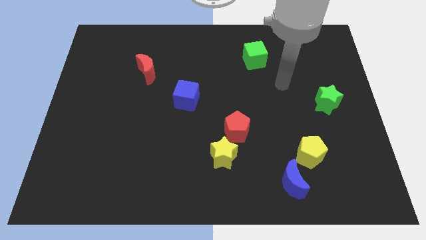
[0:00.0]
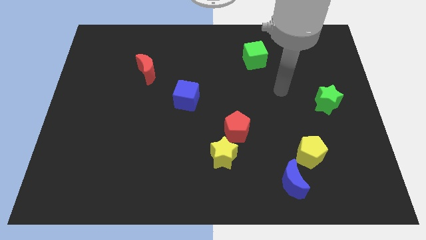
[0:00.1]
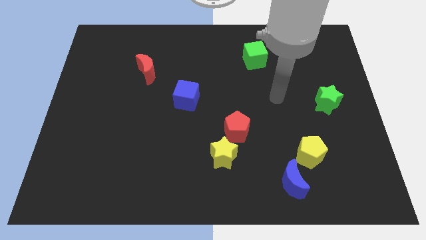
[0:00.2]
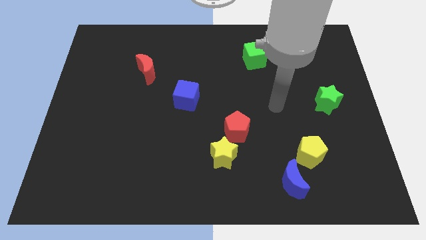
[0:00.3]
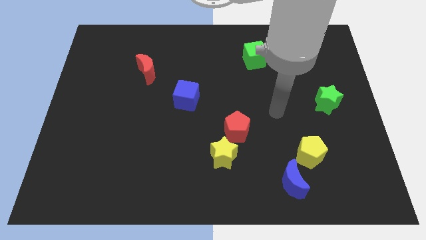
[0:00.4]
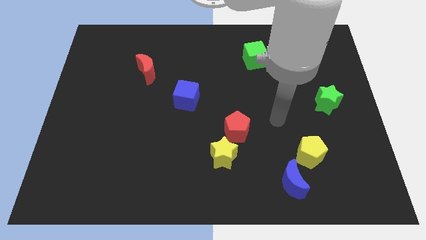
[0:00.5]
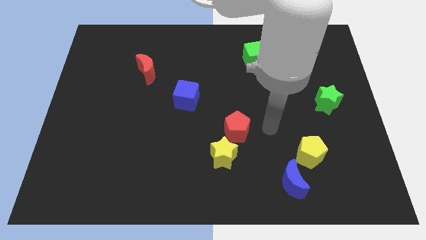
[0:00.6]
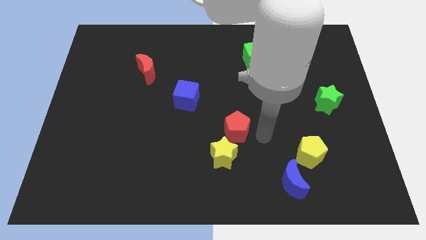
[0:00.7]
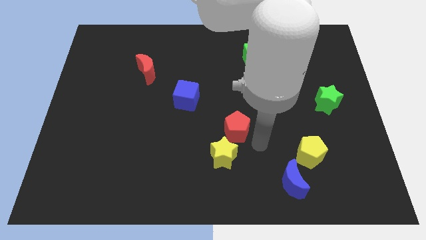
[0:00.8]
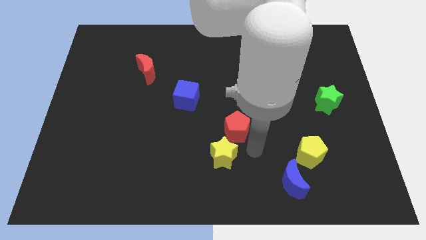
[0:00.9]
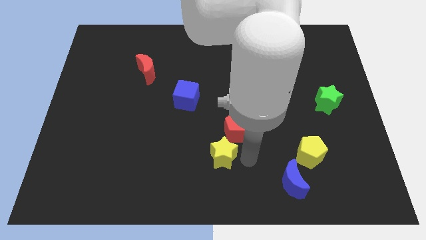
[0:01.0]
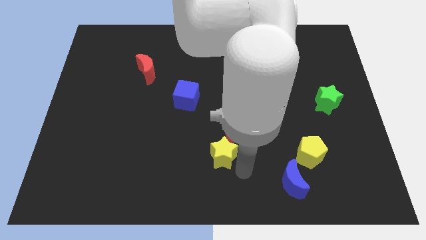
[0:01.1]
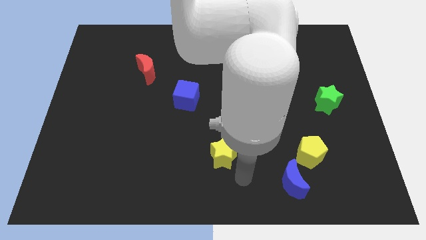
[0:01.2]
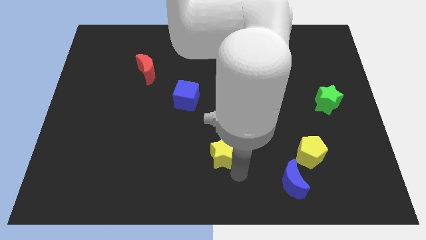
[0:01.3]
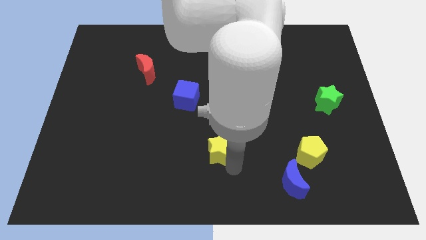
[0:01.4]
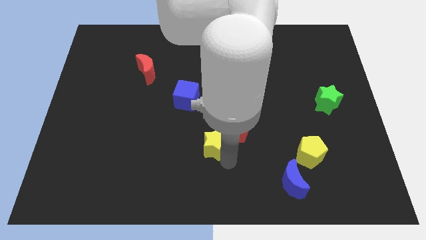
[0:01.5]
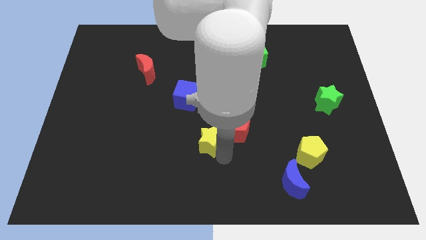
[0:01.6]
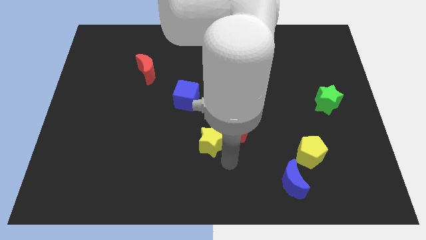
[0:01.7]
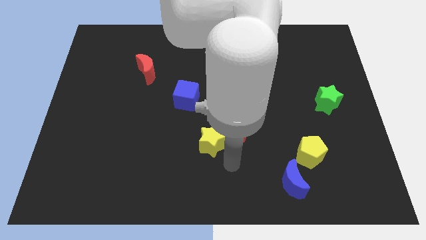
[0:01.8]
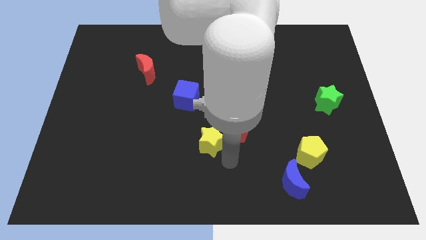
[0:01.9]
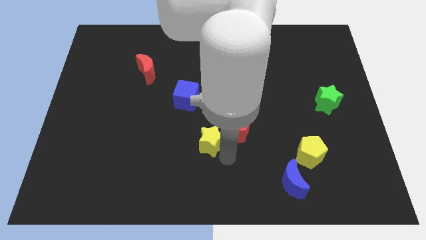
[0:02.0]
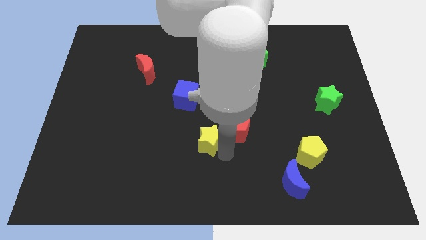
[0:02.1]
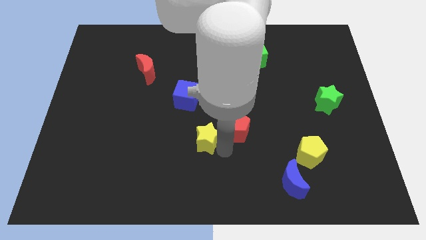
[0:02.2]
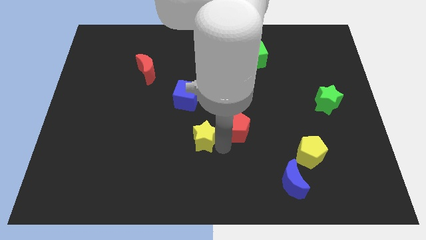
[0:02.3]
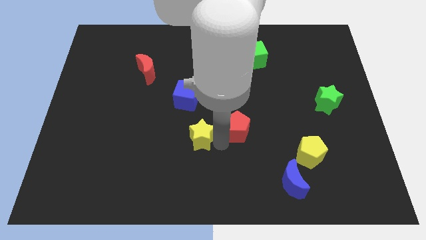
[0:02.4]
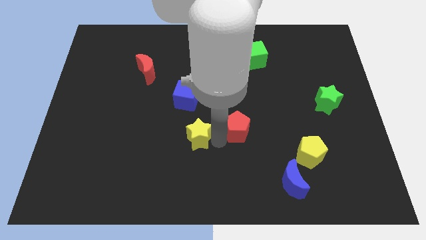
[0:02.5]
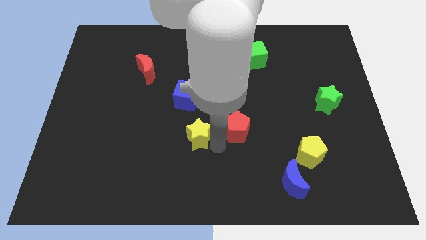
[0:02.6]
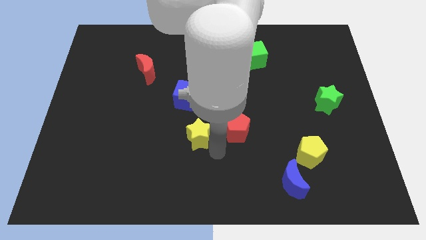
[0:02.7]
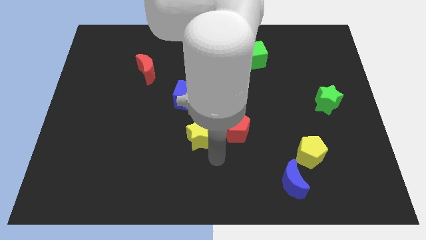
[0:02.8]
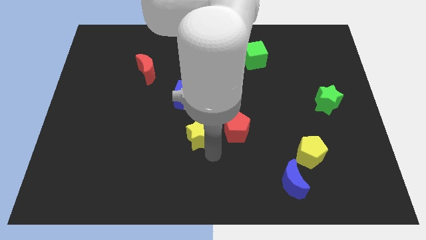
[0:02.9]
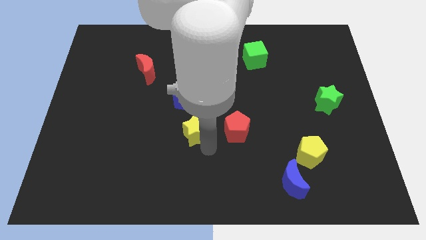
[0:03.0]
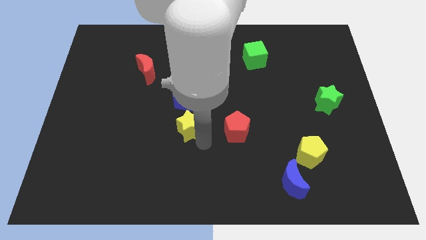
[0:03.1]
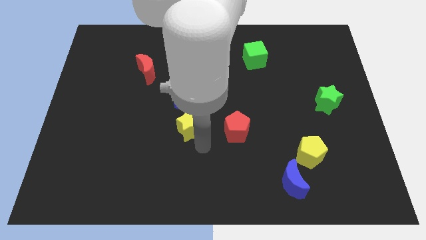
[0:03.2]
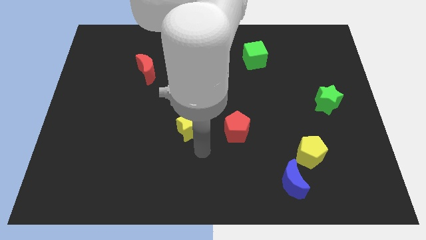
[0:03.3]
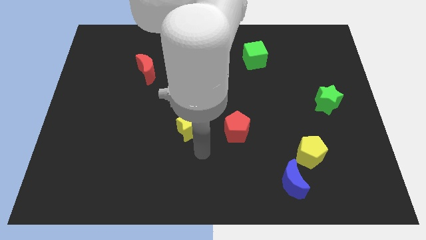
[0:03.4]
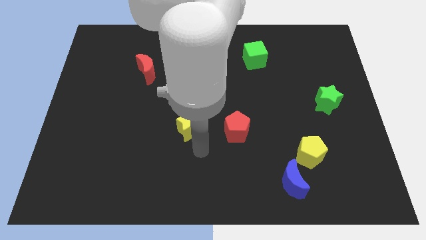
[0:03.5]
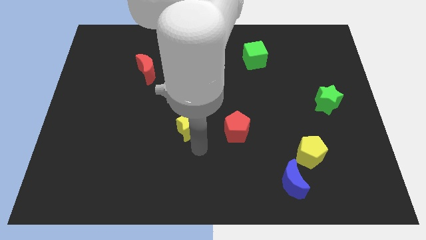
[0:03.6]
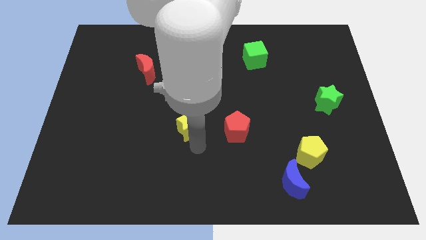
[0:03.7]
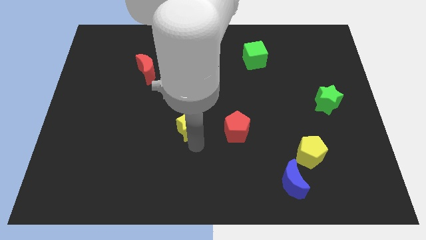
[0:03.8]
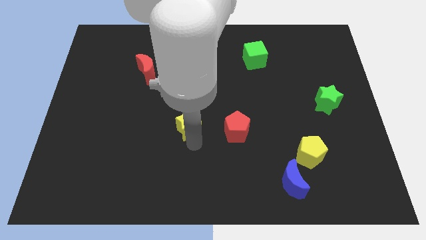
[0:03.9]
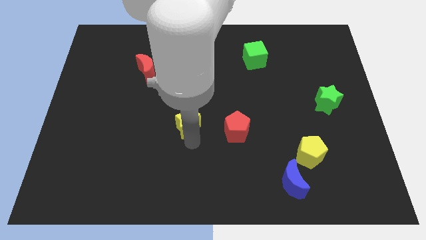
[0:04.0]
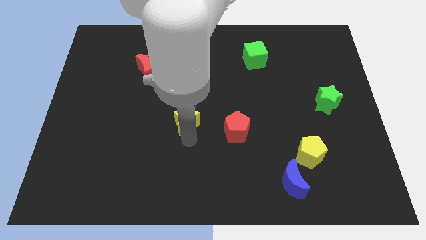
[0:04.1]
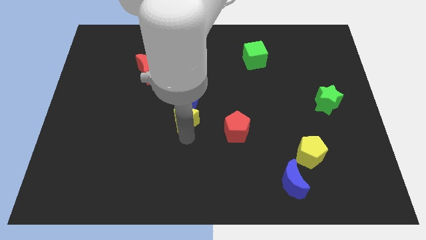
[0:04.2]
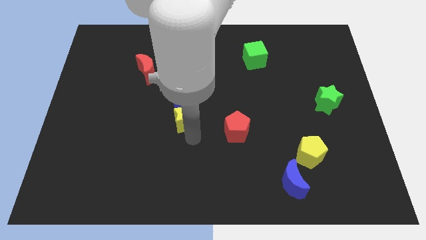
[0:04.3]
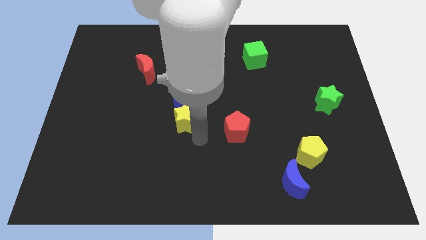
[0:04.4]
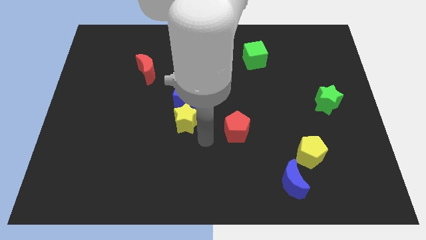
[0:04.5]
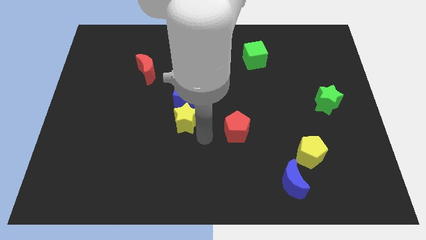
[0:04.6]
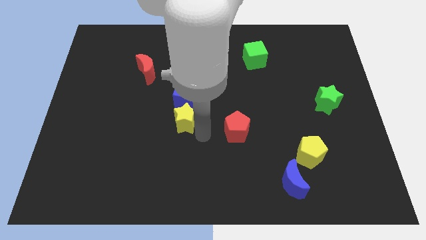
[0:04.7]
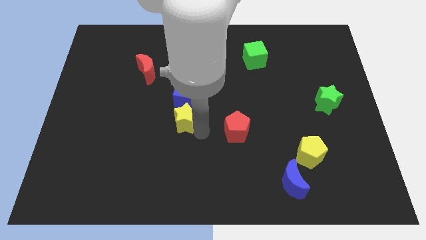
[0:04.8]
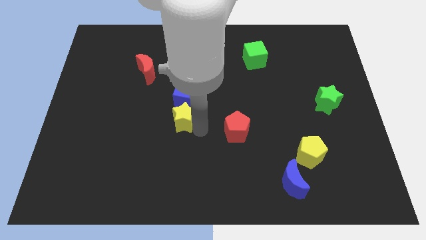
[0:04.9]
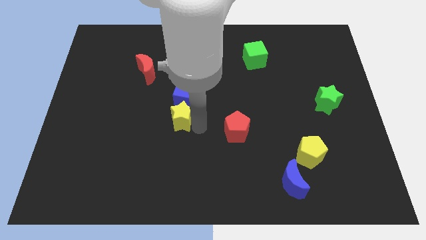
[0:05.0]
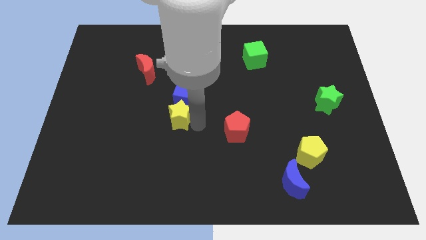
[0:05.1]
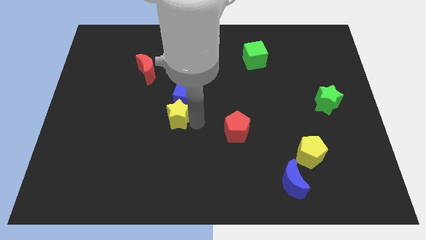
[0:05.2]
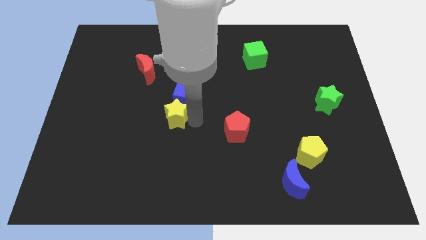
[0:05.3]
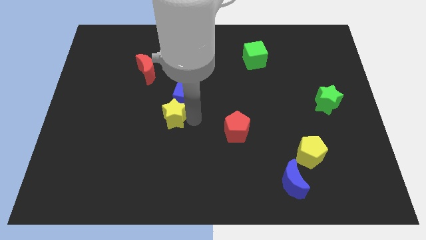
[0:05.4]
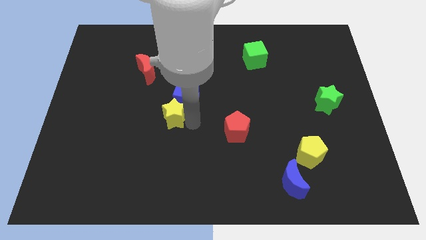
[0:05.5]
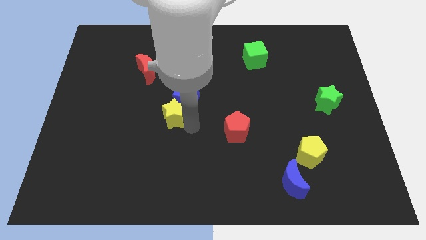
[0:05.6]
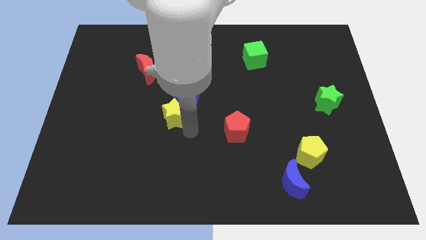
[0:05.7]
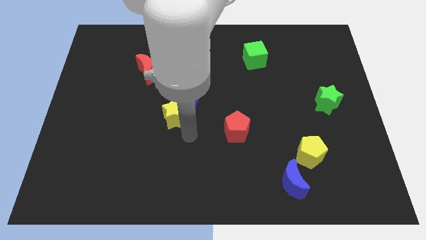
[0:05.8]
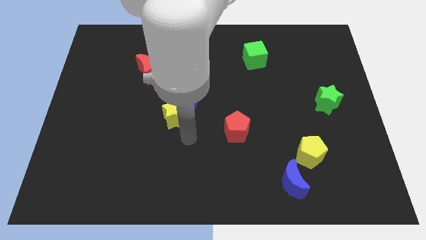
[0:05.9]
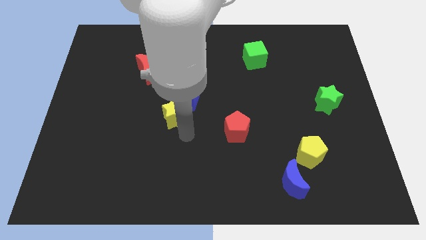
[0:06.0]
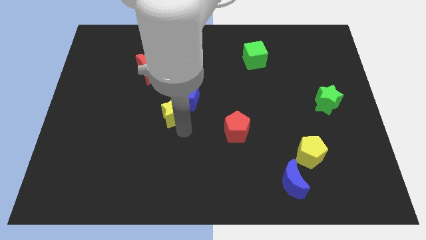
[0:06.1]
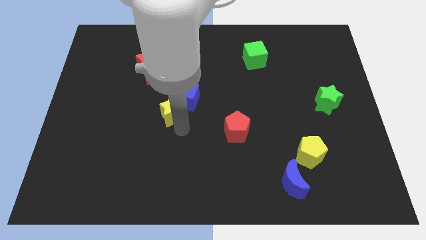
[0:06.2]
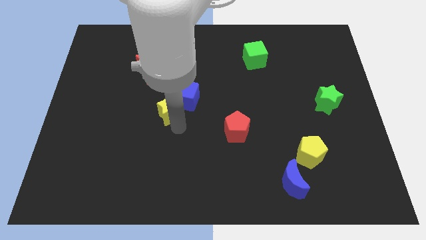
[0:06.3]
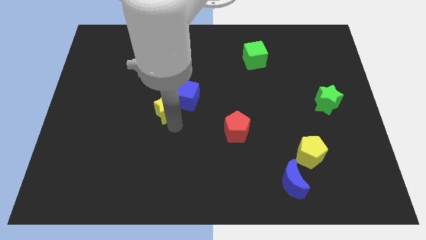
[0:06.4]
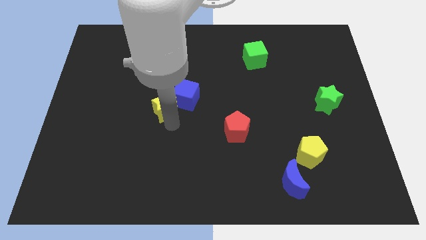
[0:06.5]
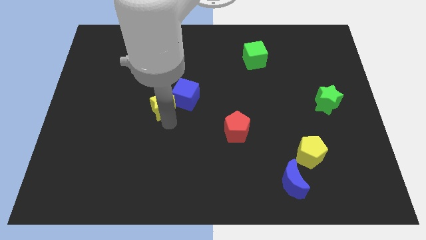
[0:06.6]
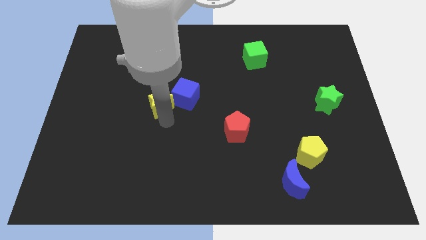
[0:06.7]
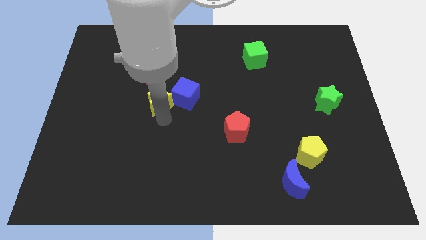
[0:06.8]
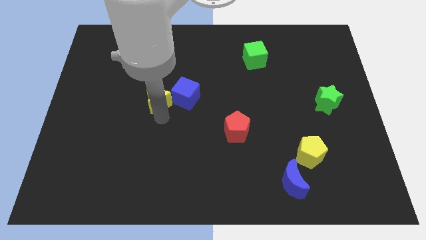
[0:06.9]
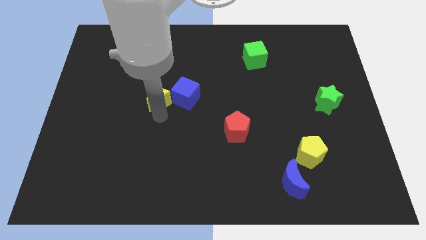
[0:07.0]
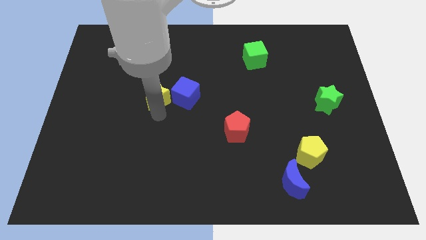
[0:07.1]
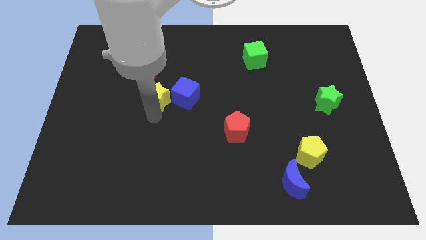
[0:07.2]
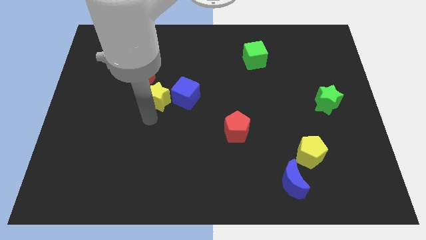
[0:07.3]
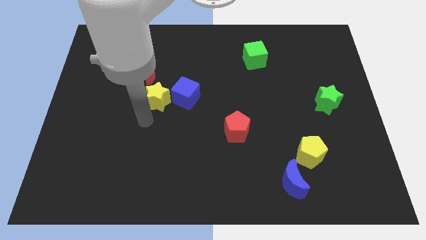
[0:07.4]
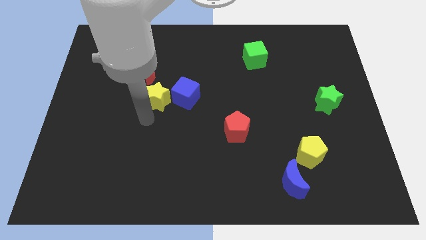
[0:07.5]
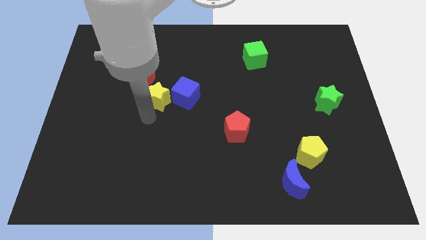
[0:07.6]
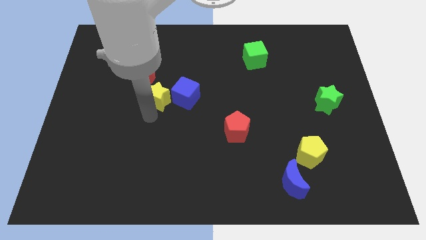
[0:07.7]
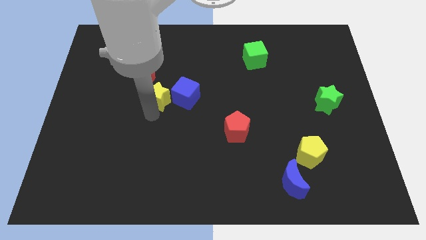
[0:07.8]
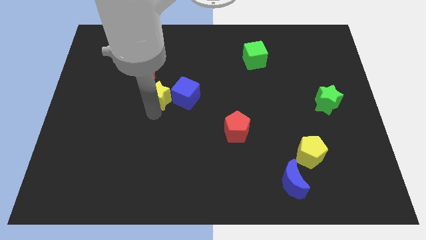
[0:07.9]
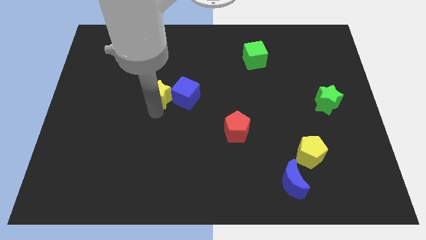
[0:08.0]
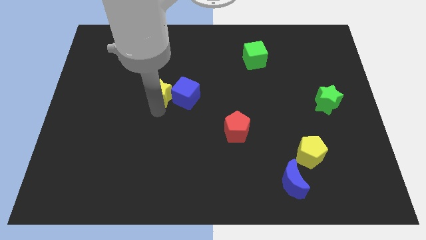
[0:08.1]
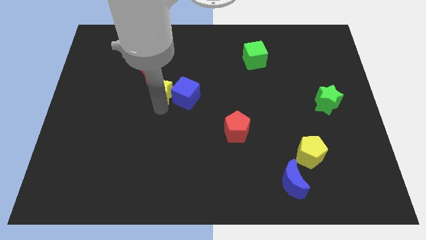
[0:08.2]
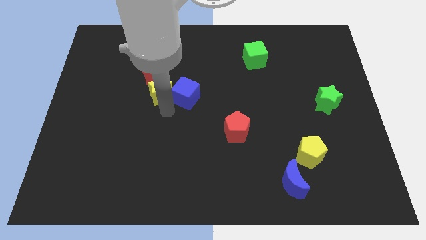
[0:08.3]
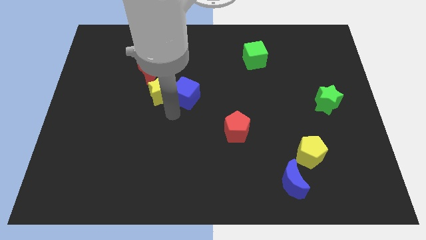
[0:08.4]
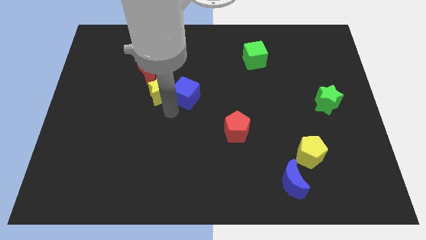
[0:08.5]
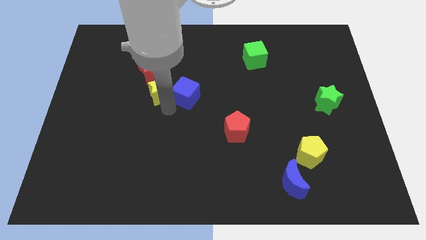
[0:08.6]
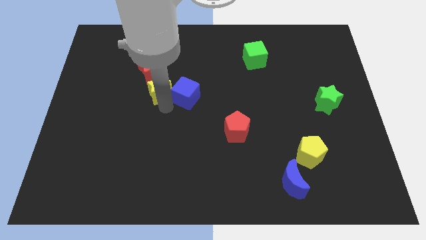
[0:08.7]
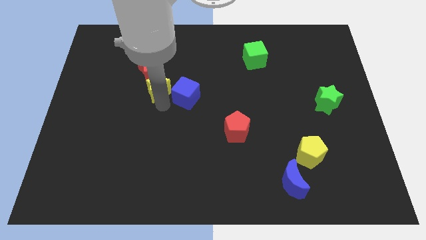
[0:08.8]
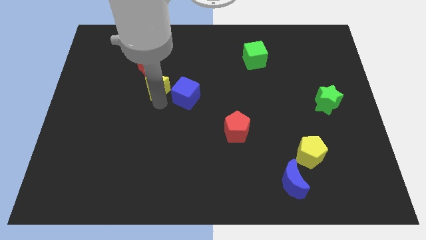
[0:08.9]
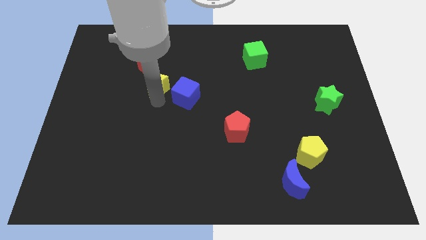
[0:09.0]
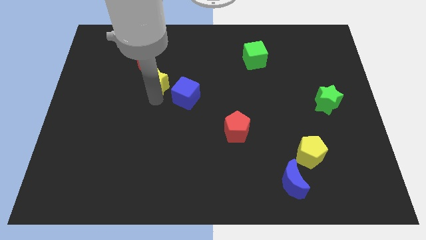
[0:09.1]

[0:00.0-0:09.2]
put the yellow star next to the red moon
